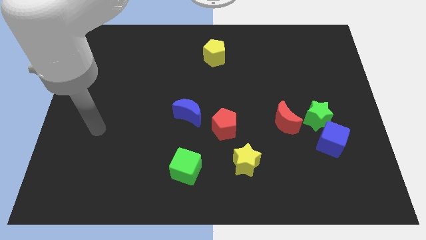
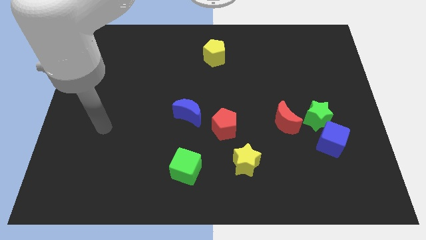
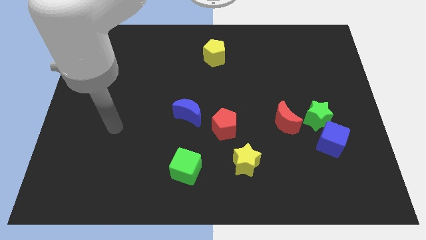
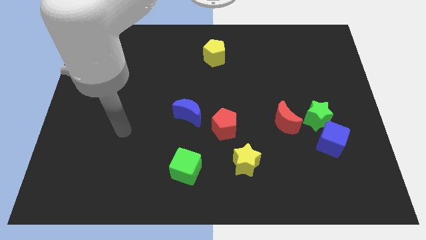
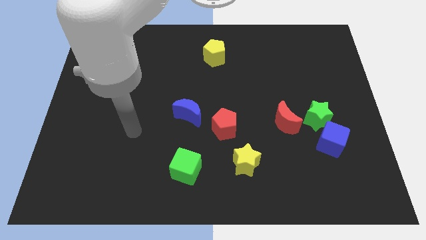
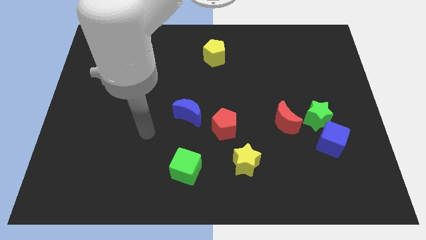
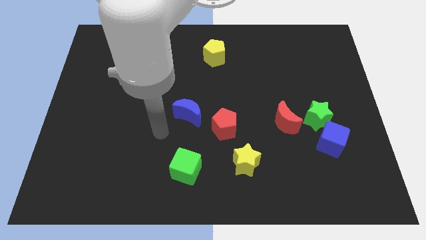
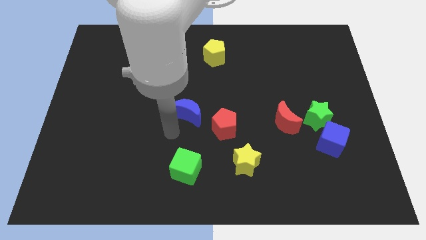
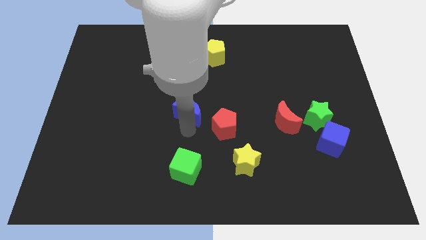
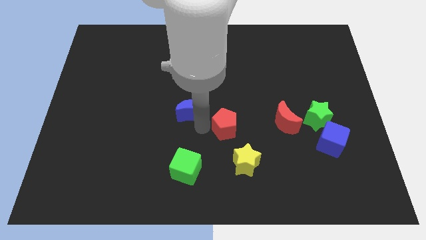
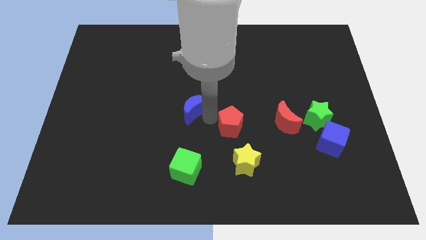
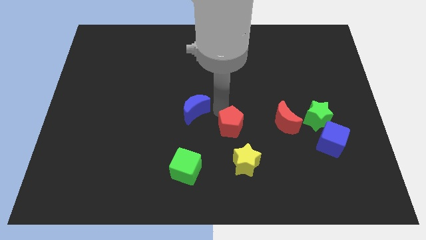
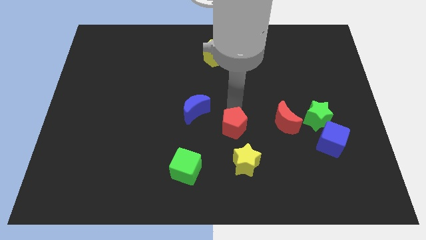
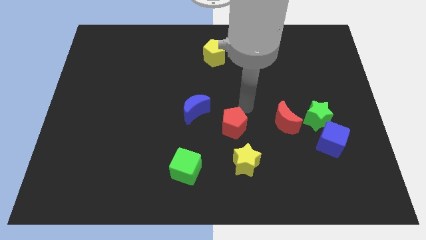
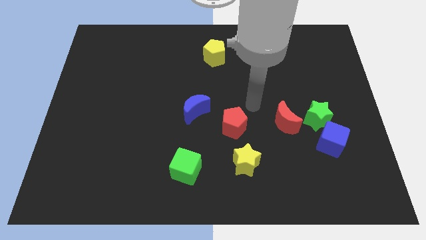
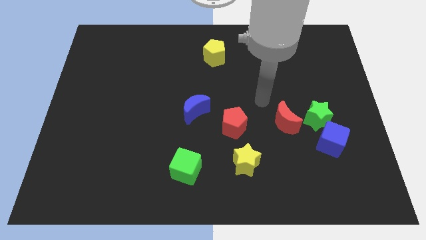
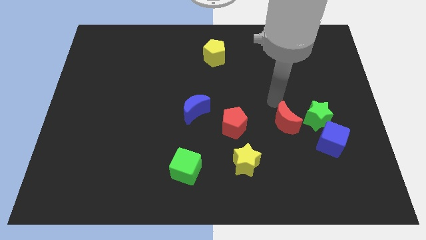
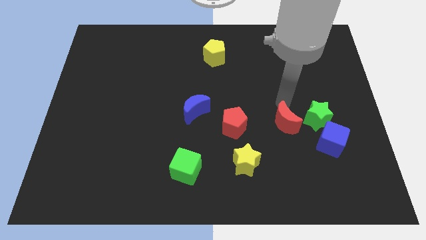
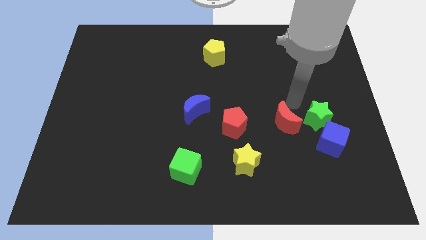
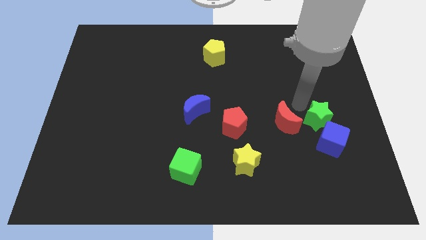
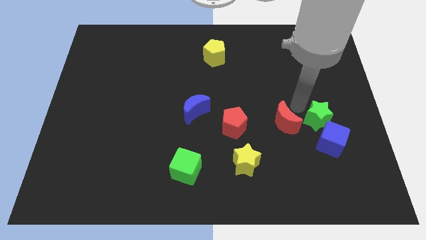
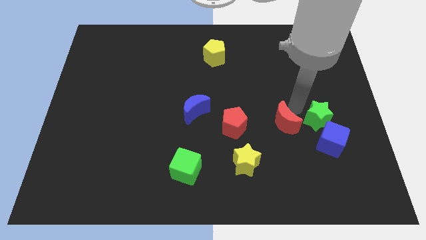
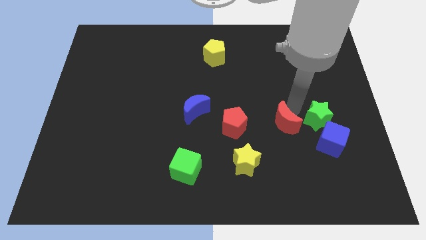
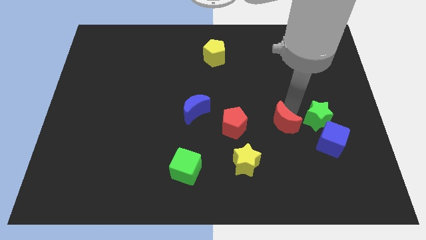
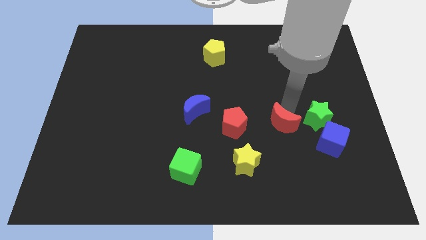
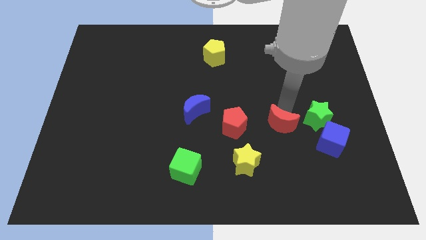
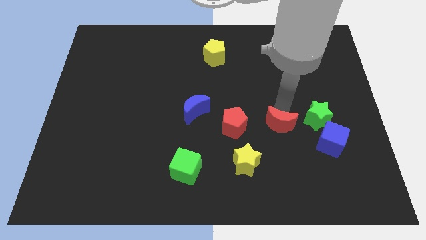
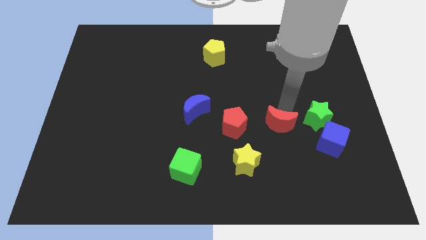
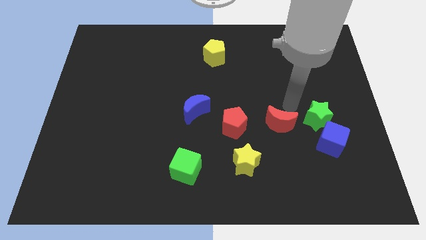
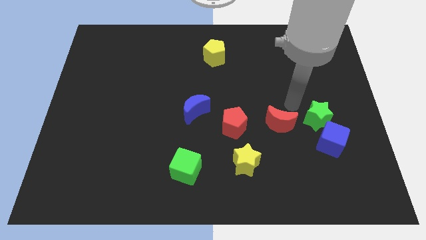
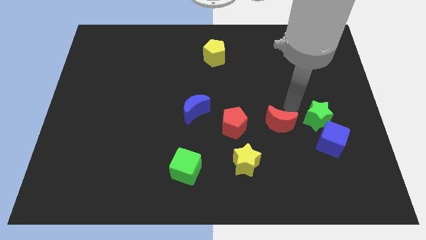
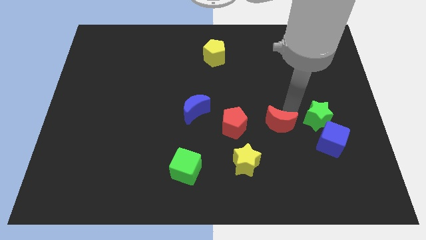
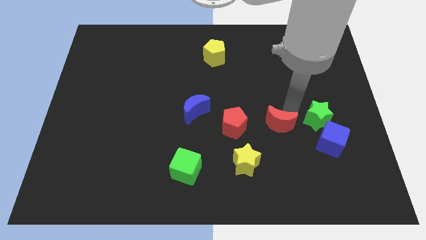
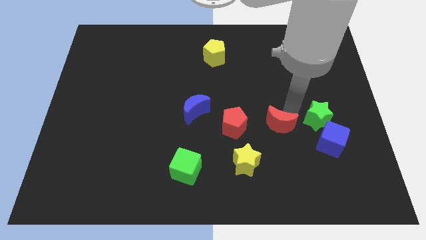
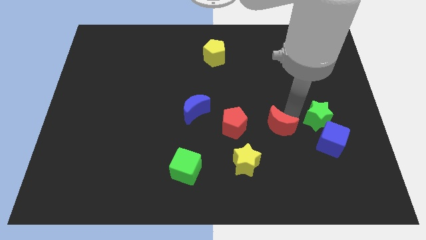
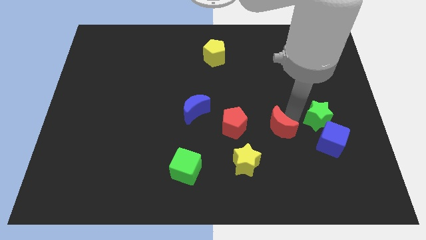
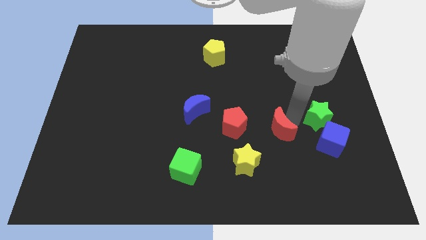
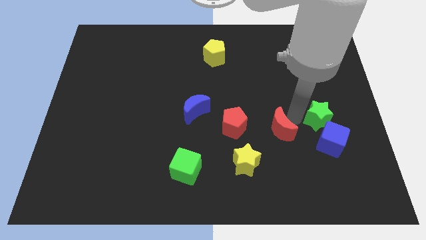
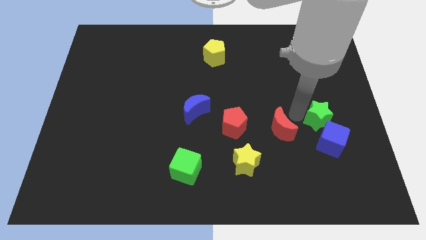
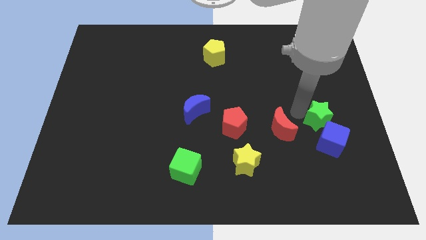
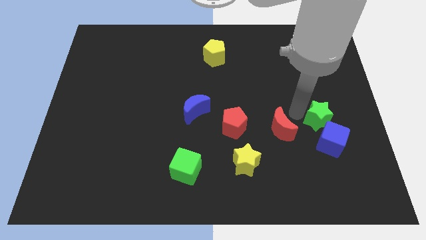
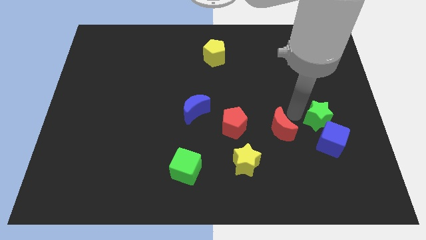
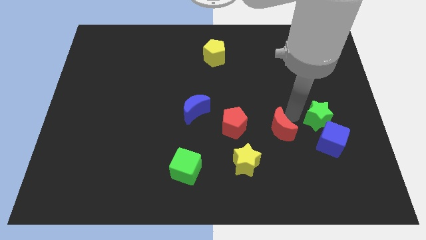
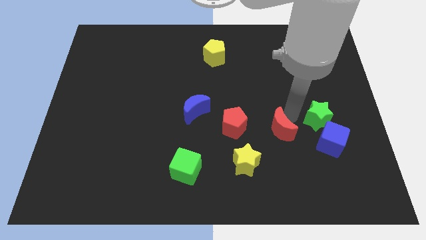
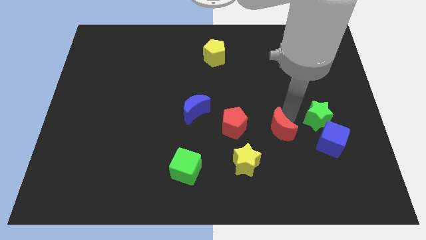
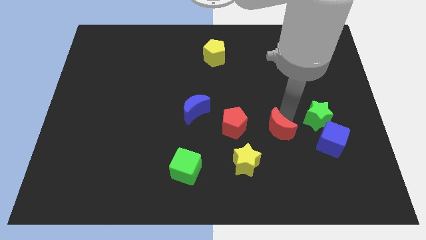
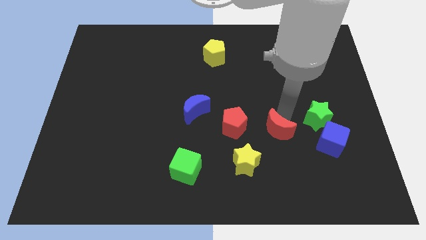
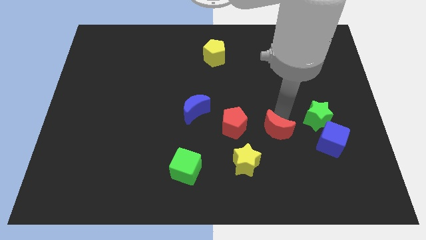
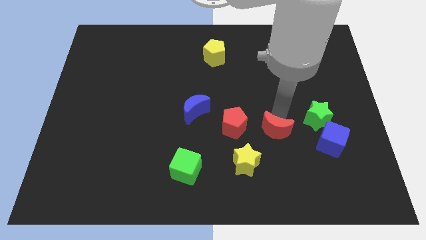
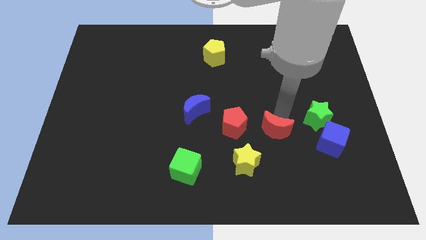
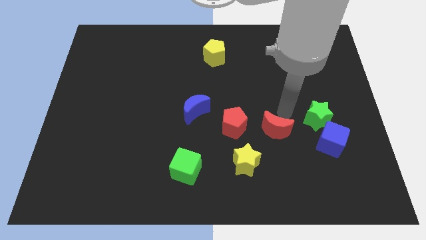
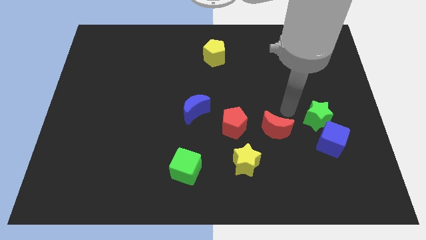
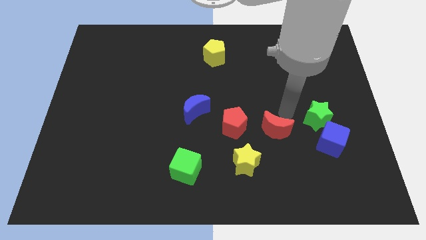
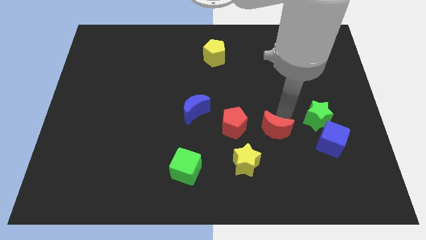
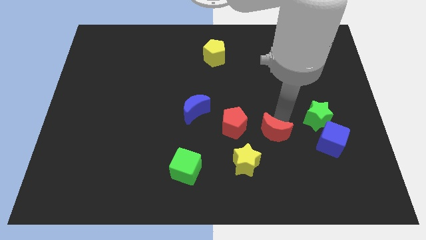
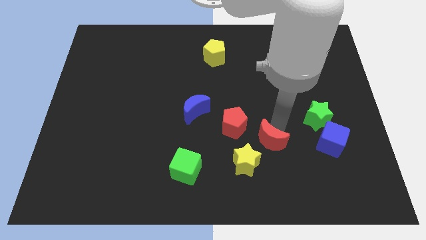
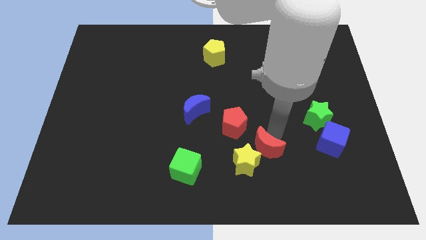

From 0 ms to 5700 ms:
put the red moon towards the yellow star

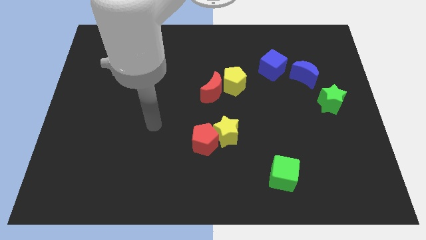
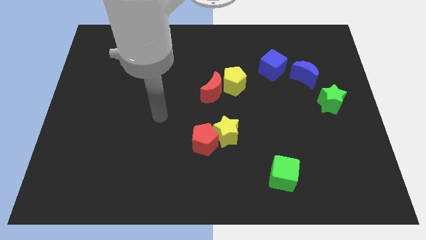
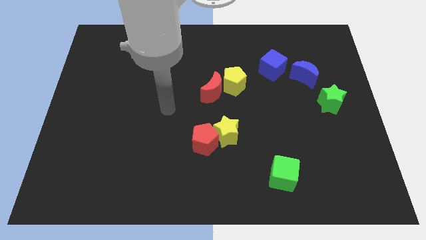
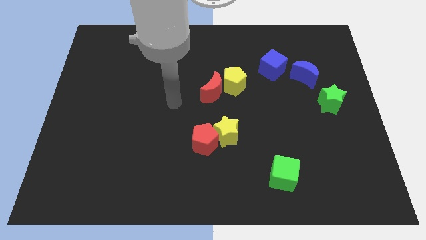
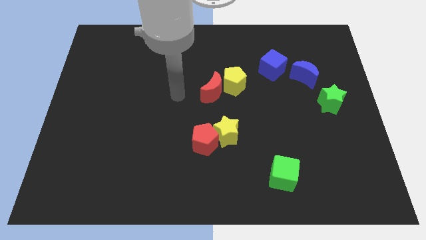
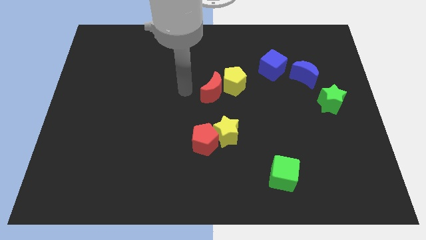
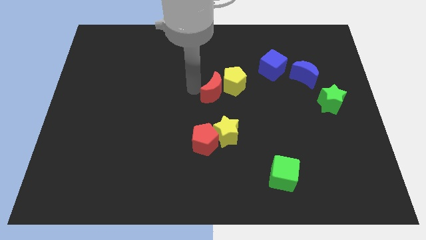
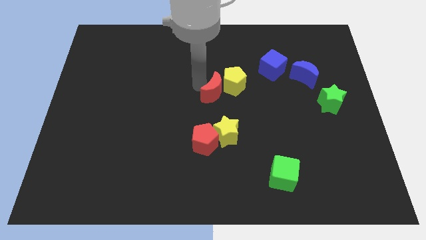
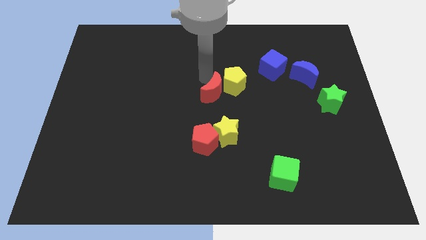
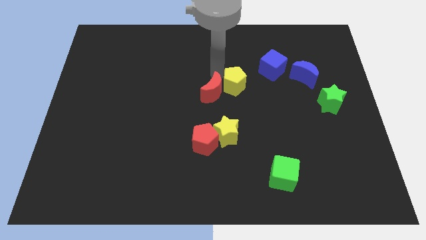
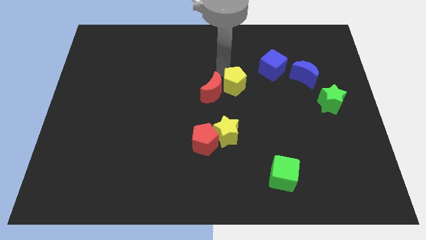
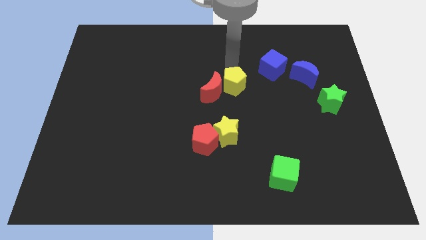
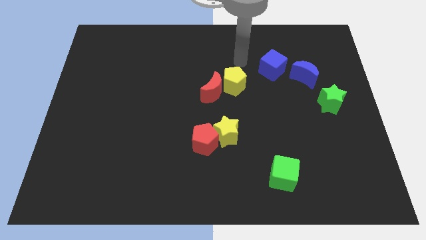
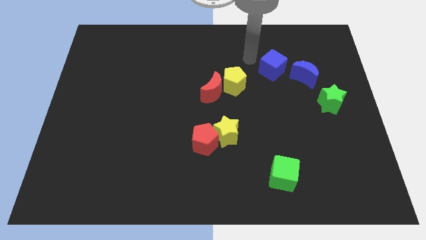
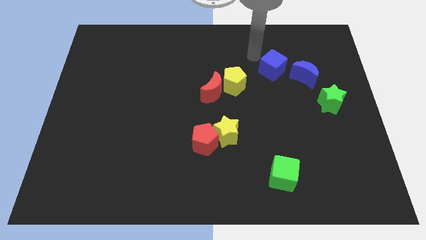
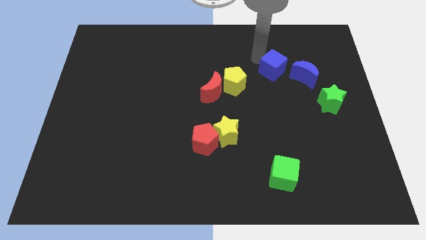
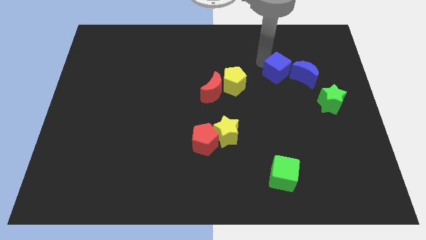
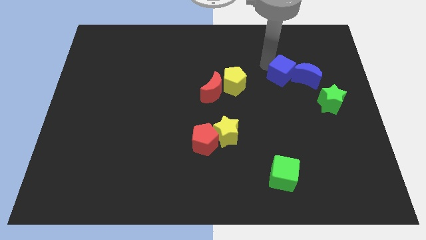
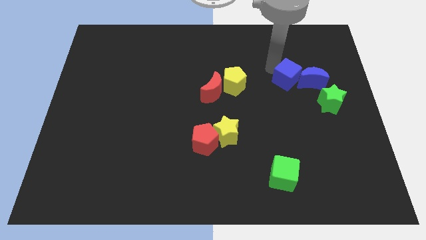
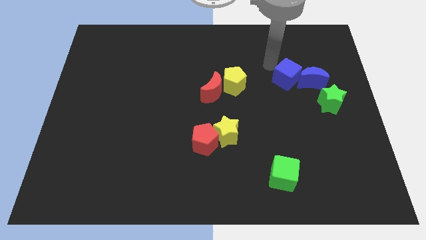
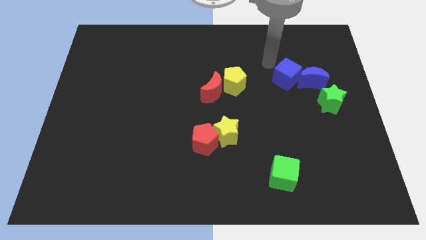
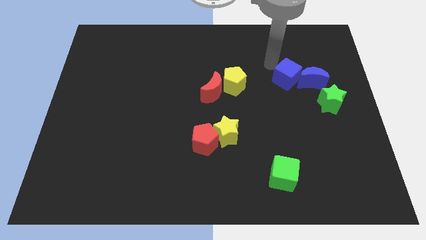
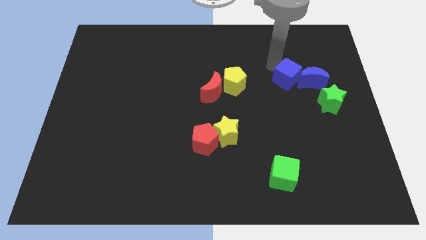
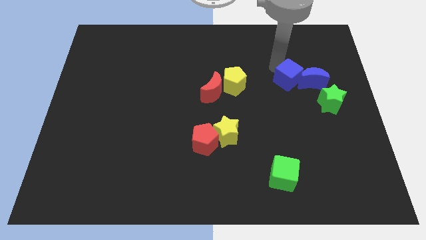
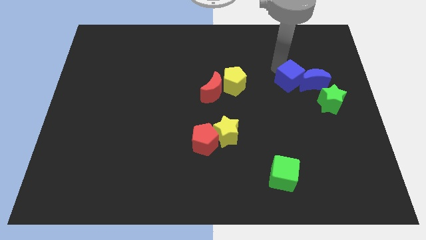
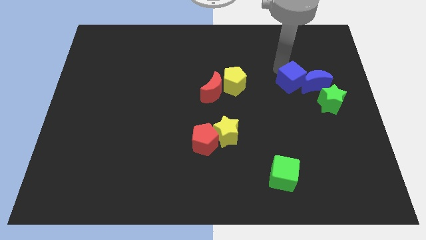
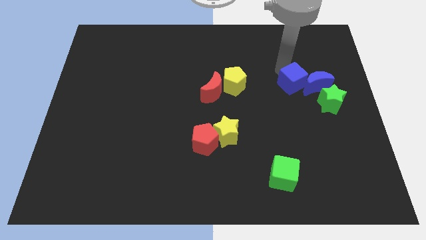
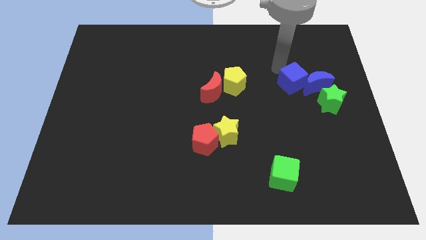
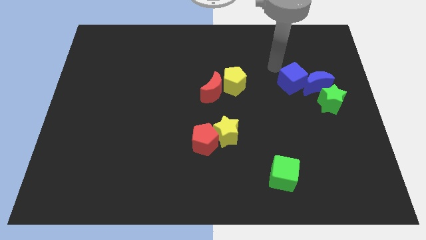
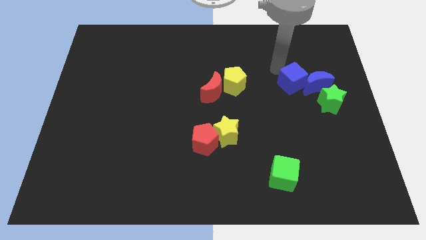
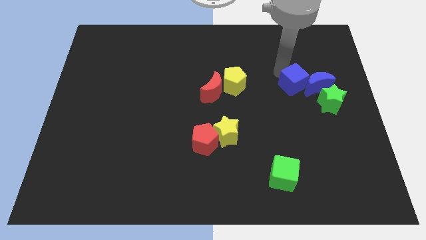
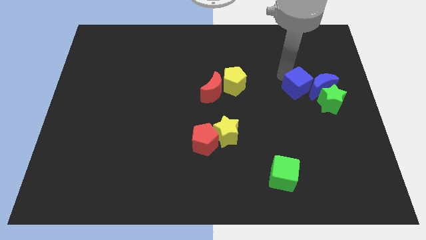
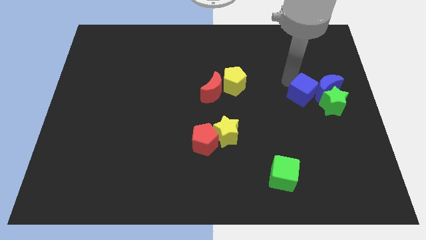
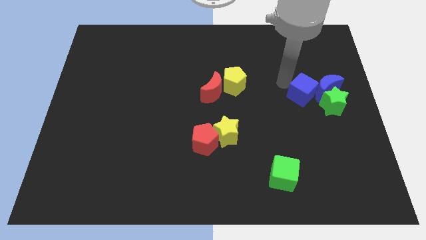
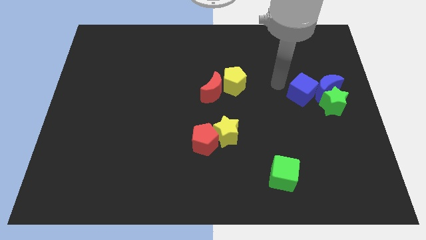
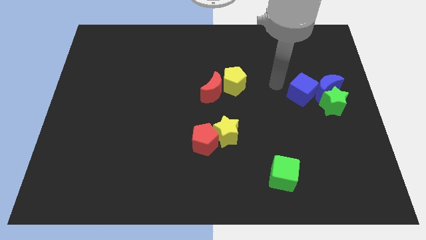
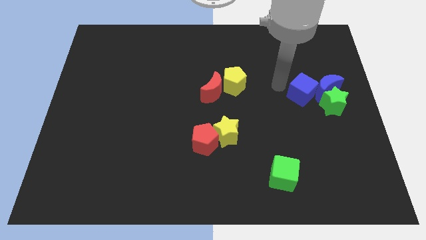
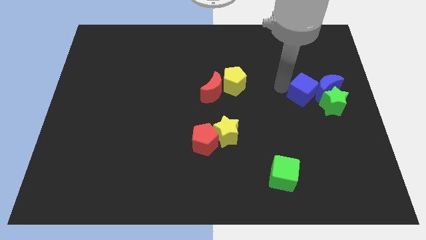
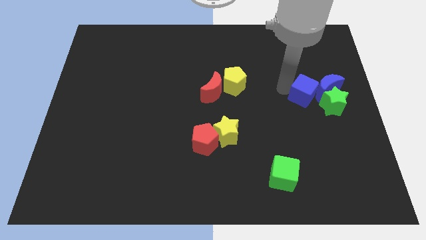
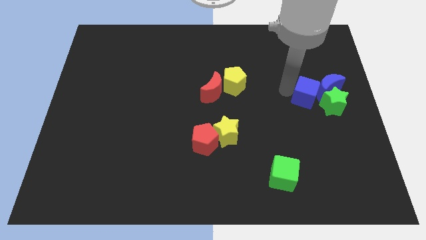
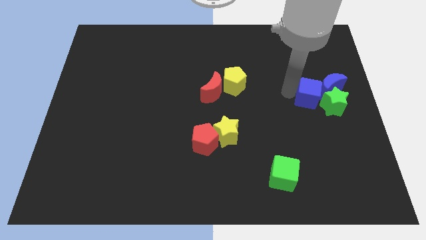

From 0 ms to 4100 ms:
move the blue cube next to the green star
